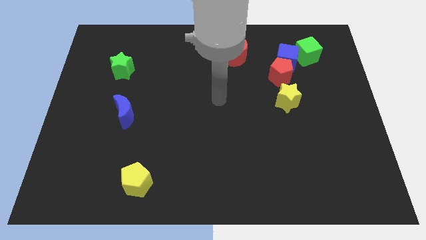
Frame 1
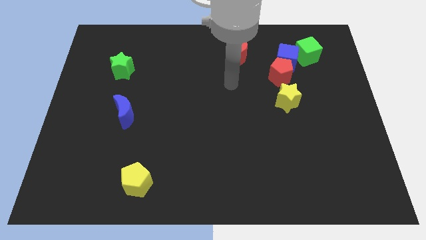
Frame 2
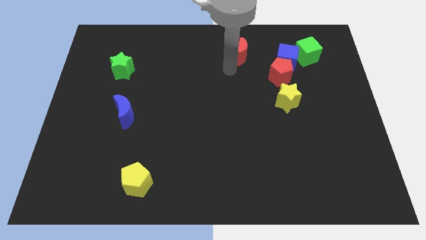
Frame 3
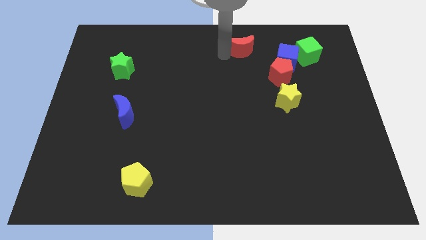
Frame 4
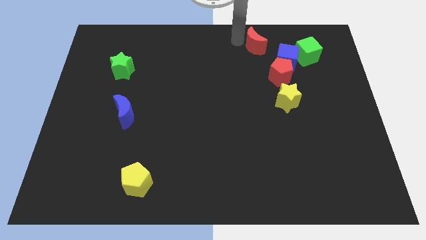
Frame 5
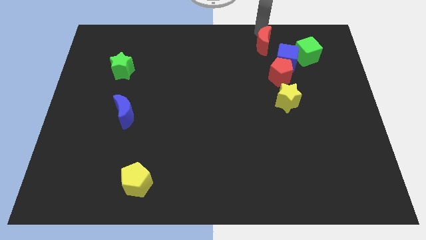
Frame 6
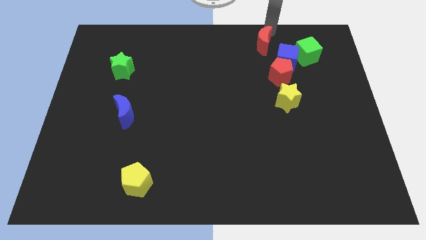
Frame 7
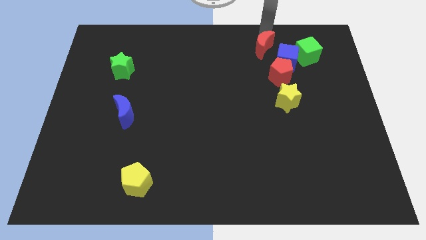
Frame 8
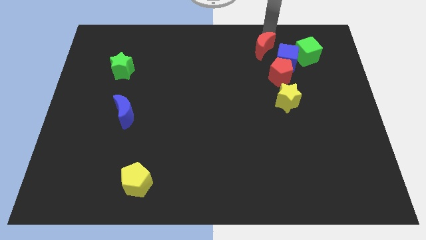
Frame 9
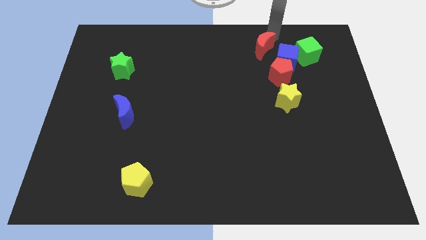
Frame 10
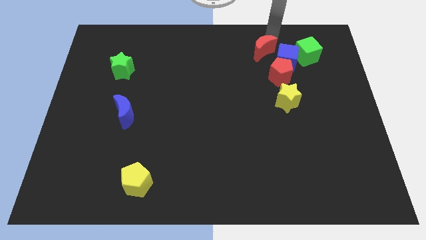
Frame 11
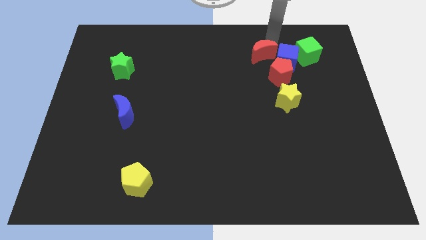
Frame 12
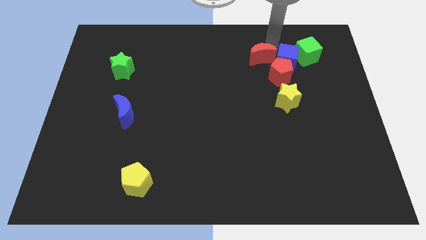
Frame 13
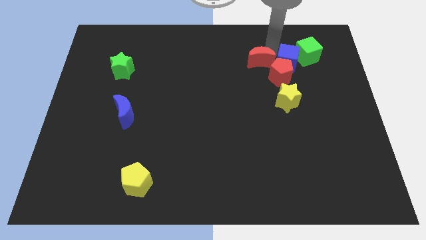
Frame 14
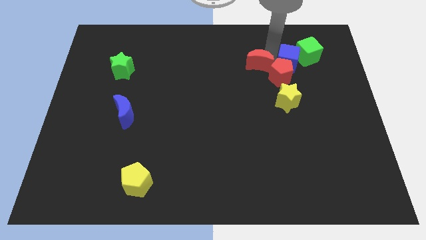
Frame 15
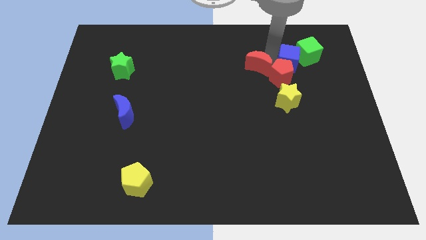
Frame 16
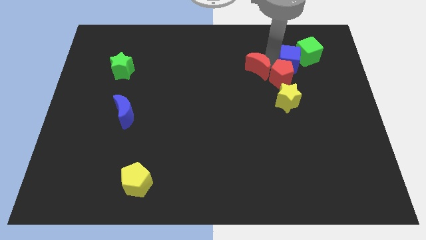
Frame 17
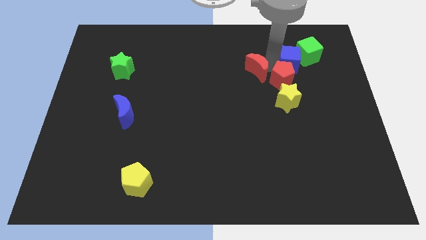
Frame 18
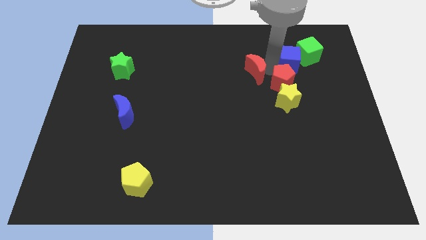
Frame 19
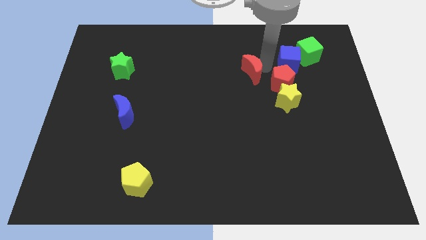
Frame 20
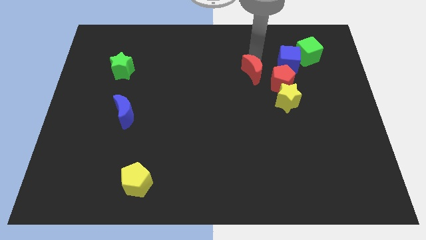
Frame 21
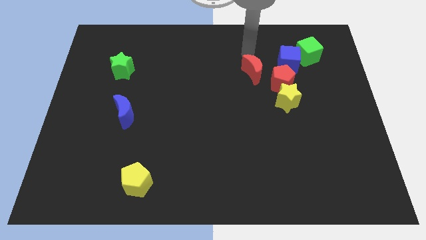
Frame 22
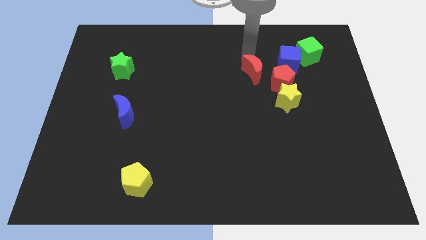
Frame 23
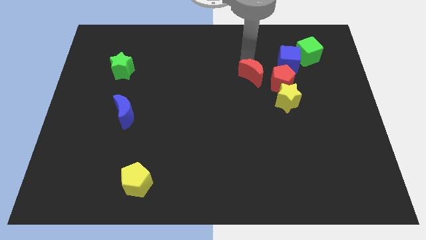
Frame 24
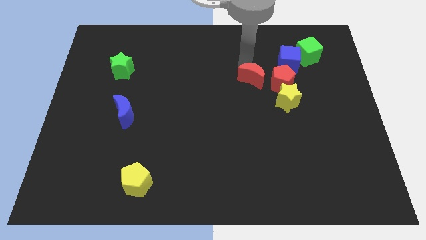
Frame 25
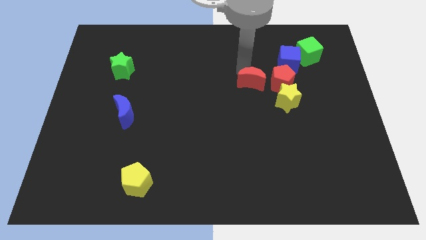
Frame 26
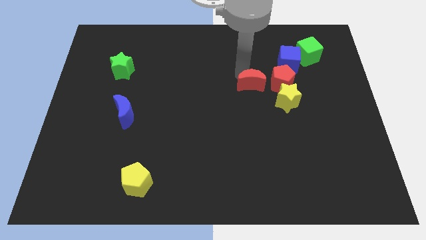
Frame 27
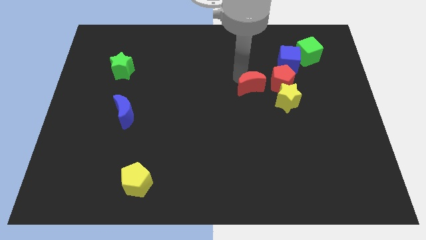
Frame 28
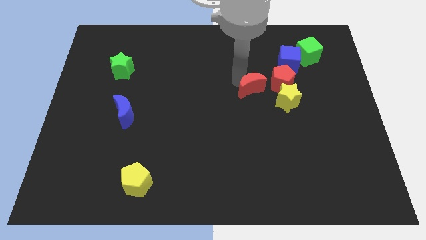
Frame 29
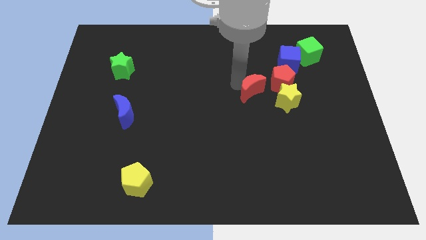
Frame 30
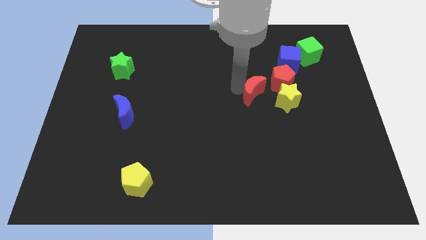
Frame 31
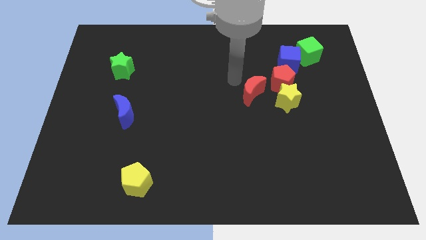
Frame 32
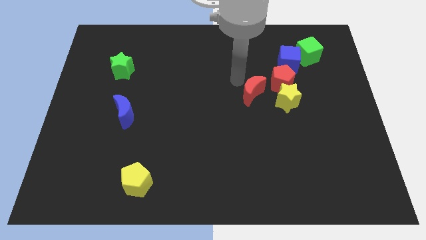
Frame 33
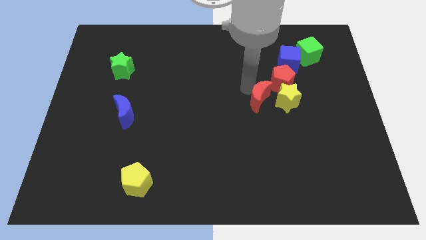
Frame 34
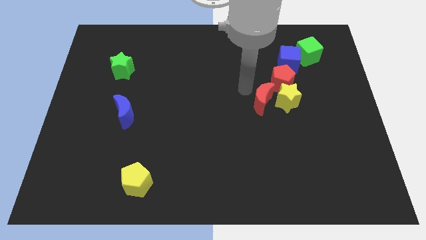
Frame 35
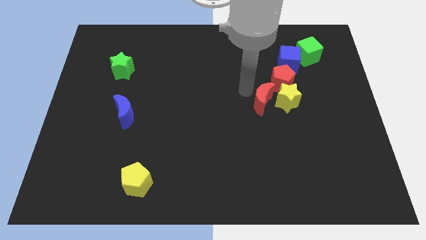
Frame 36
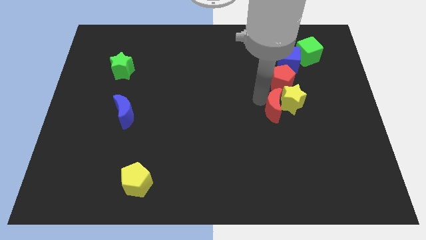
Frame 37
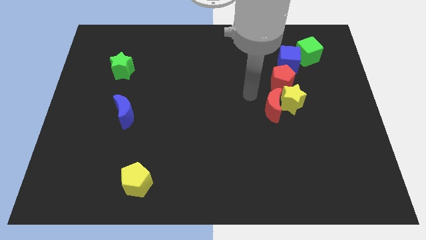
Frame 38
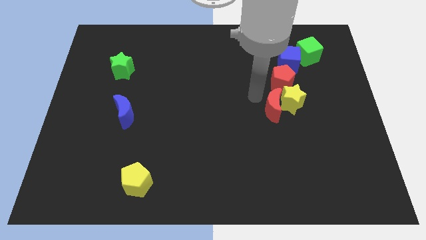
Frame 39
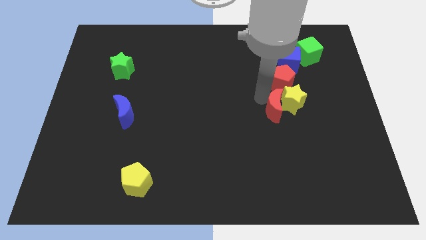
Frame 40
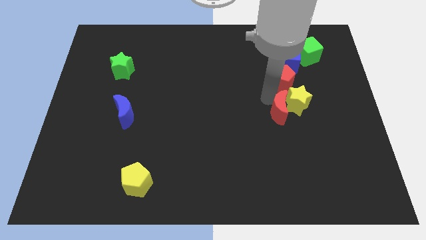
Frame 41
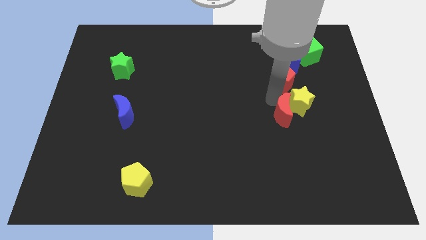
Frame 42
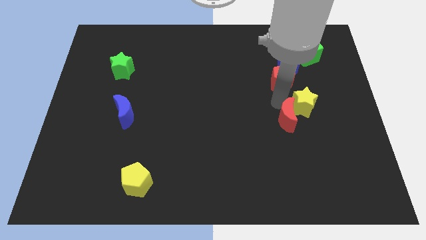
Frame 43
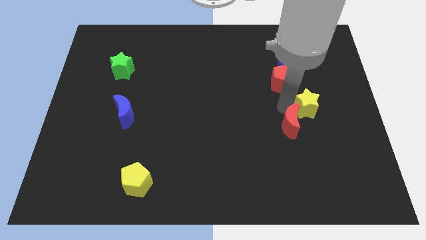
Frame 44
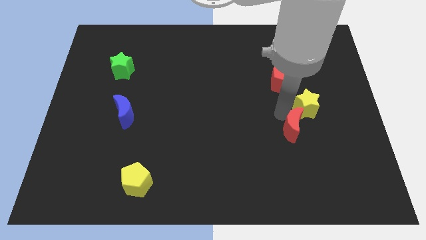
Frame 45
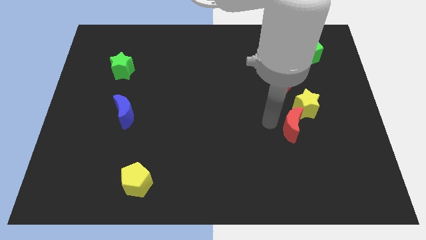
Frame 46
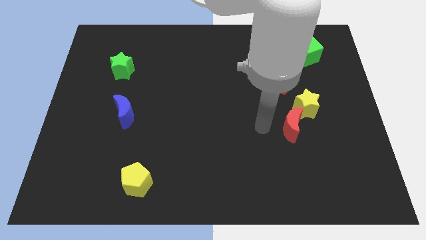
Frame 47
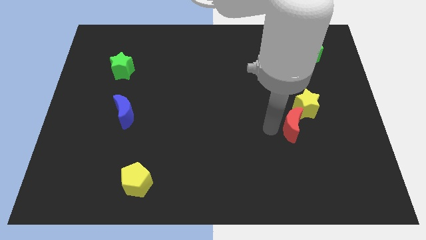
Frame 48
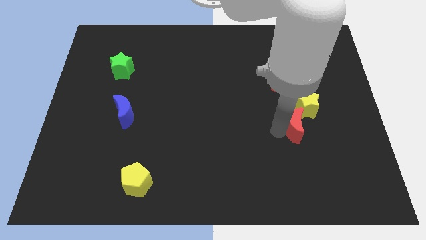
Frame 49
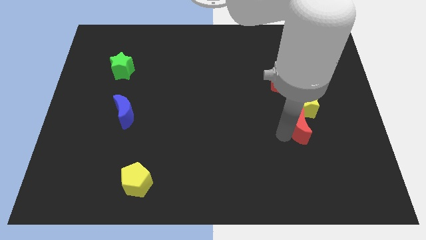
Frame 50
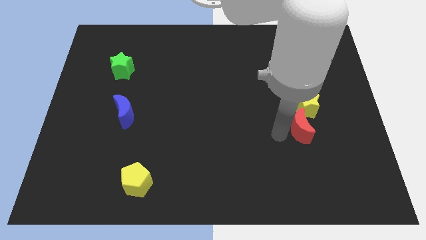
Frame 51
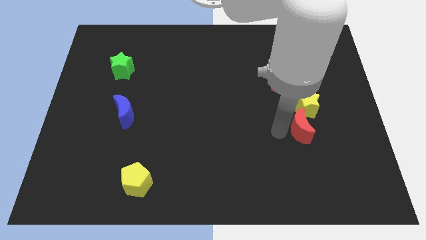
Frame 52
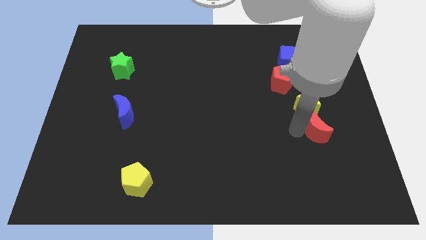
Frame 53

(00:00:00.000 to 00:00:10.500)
put the red moon diagonally down and to the right of the yellow star

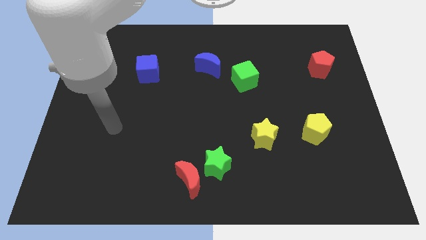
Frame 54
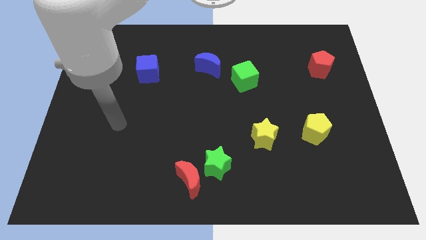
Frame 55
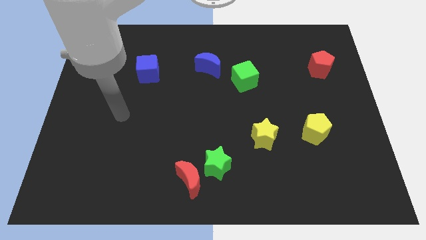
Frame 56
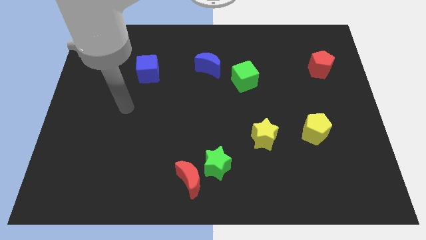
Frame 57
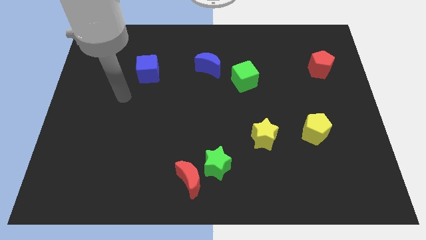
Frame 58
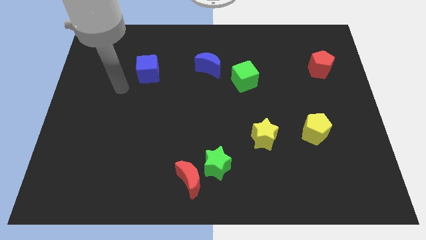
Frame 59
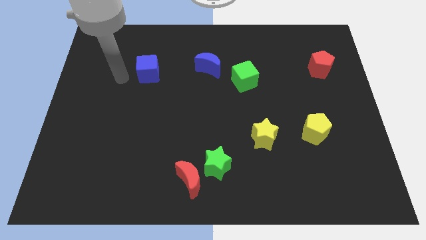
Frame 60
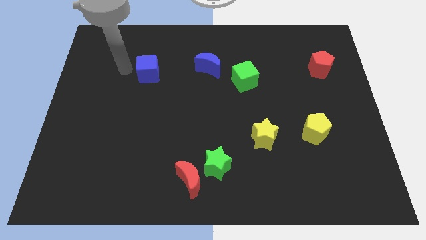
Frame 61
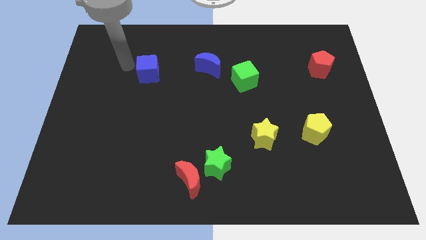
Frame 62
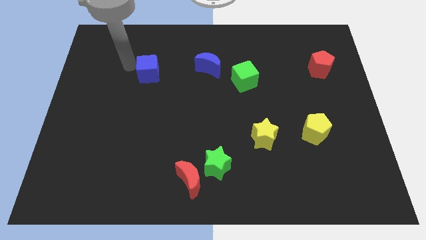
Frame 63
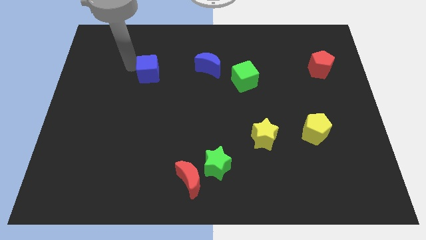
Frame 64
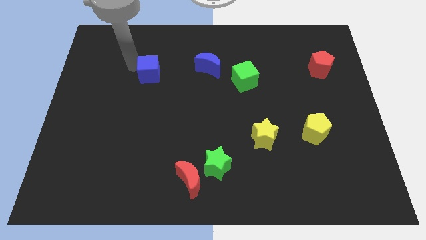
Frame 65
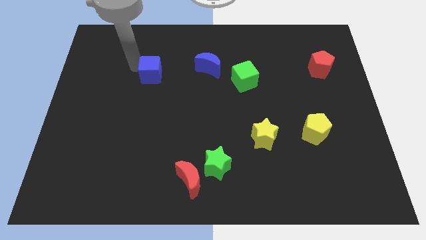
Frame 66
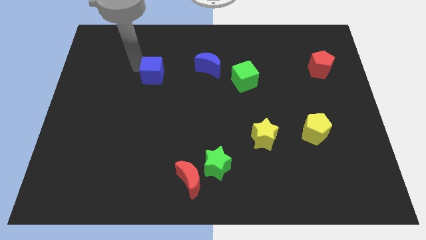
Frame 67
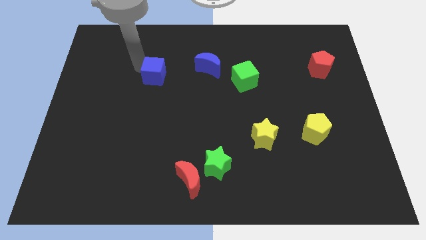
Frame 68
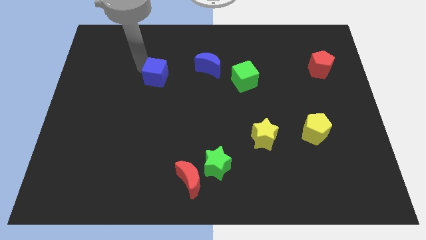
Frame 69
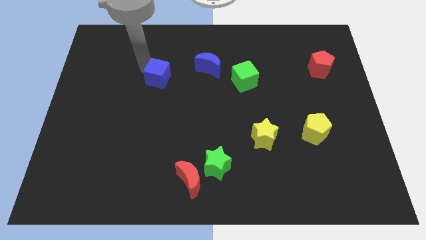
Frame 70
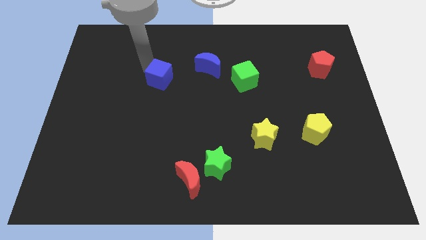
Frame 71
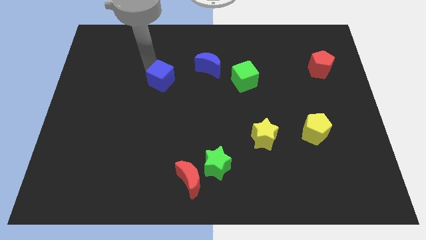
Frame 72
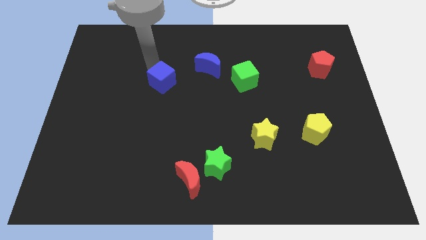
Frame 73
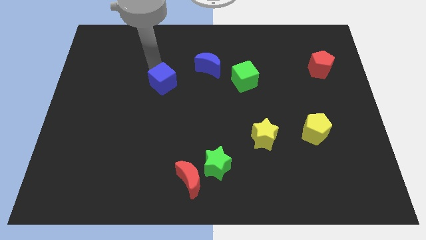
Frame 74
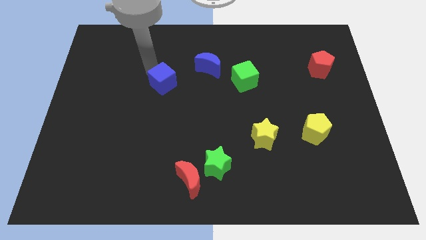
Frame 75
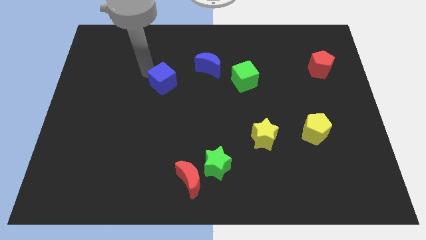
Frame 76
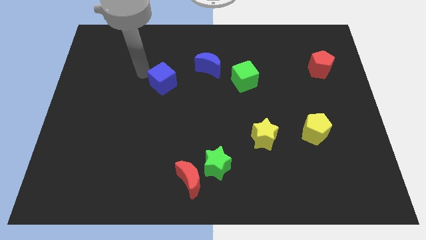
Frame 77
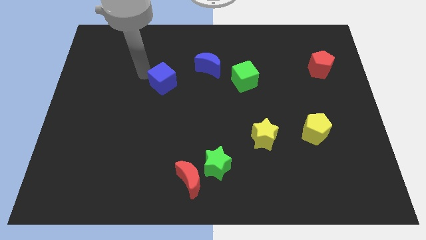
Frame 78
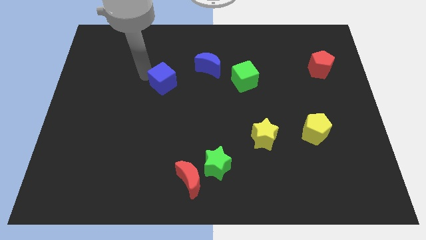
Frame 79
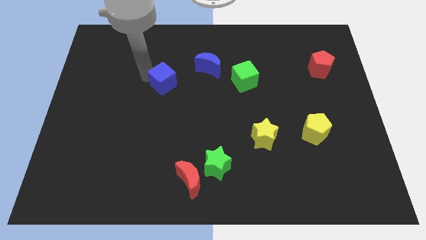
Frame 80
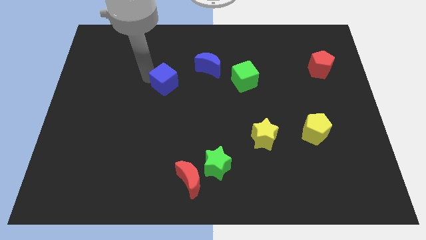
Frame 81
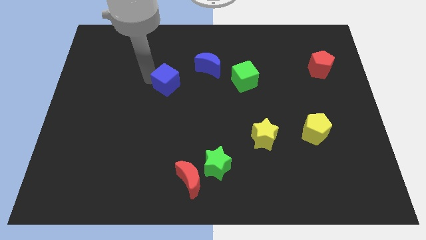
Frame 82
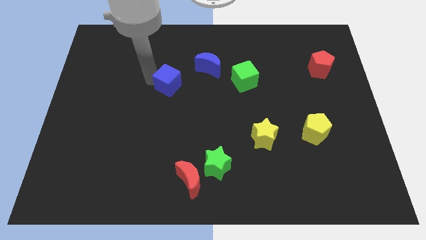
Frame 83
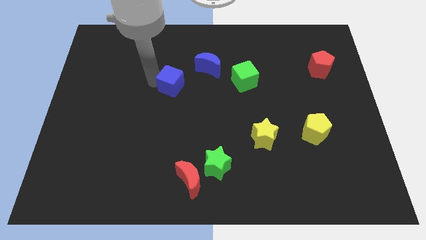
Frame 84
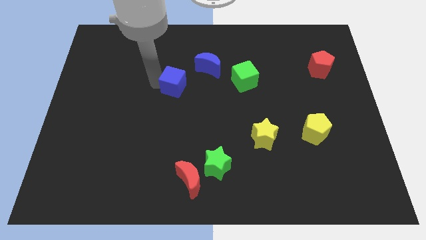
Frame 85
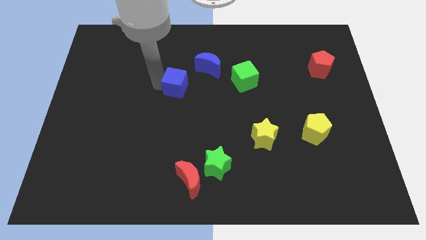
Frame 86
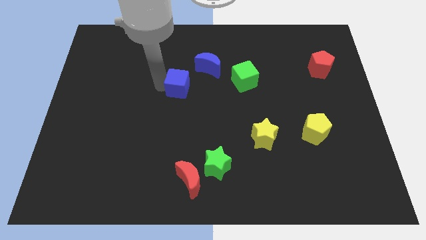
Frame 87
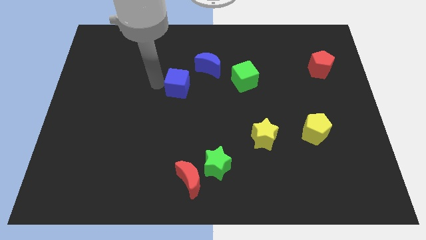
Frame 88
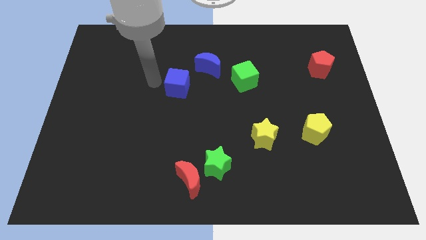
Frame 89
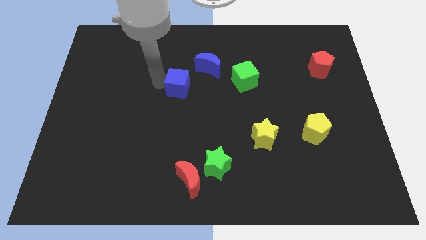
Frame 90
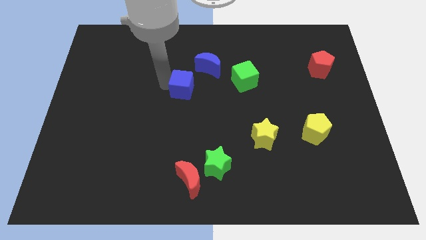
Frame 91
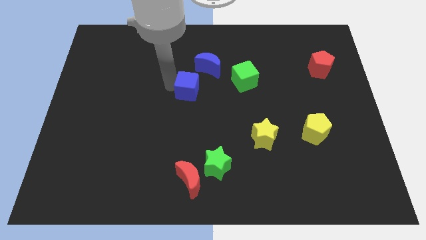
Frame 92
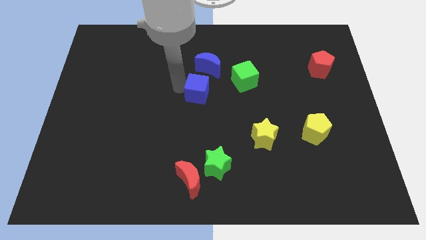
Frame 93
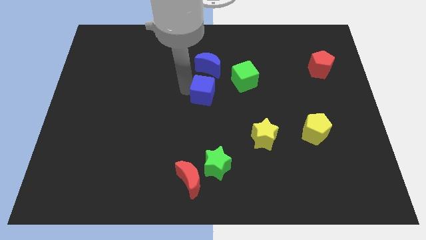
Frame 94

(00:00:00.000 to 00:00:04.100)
put the blue cube to the bottom left side of the green cube
